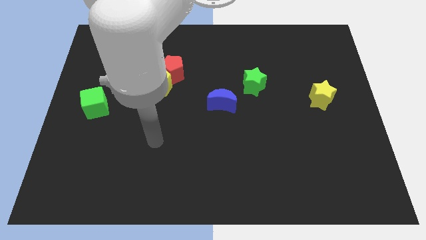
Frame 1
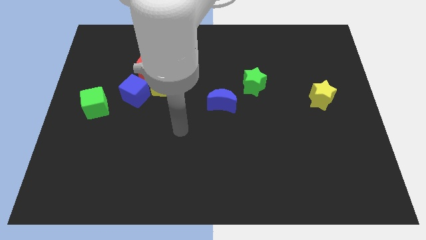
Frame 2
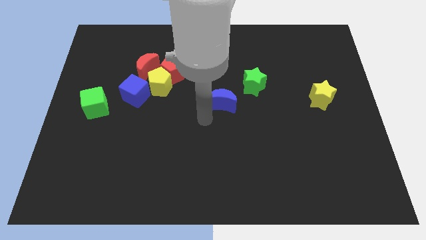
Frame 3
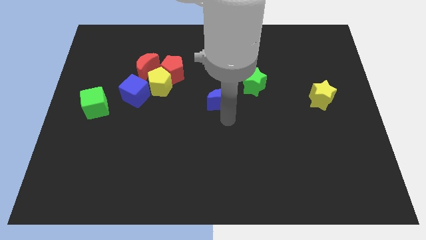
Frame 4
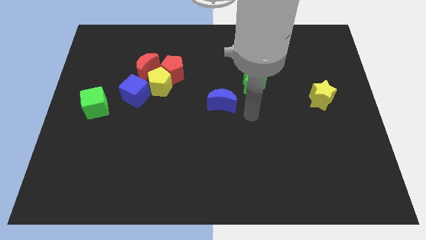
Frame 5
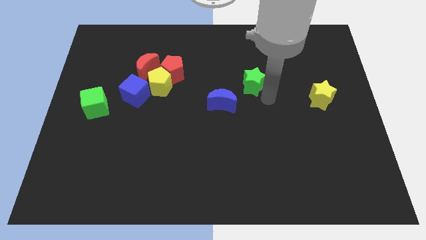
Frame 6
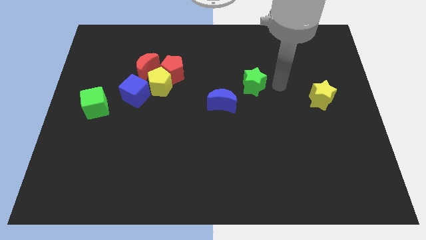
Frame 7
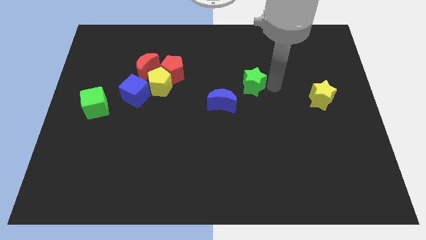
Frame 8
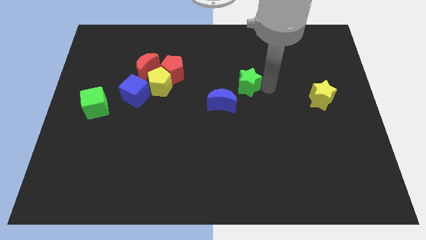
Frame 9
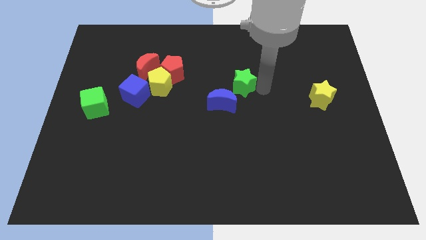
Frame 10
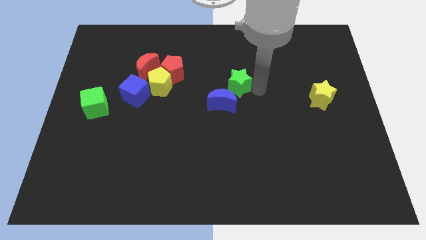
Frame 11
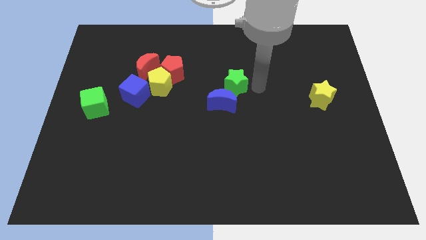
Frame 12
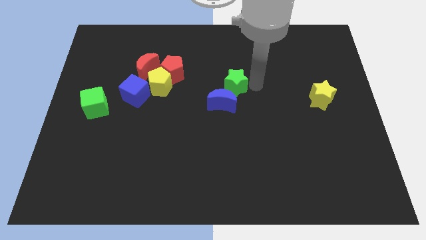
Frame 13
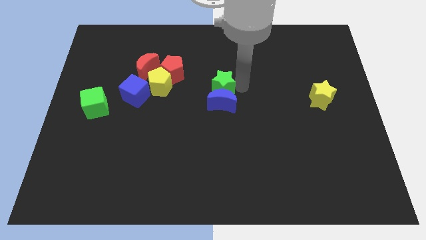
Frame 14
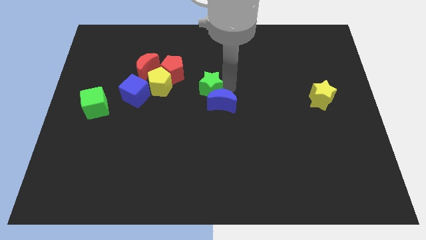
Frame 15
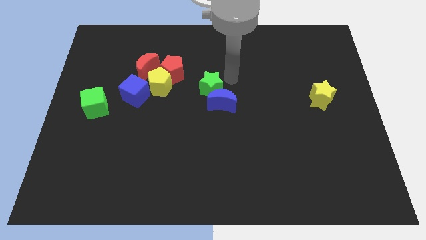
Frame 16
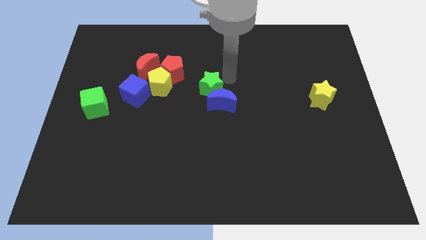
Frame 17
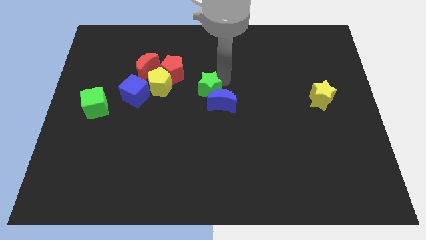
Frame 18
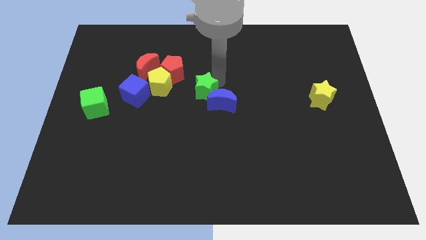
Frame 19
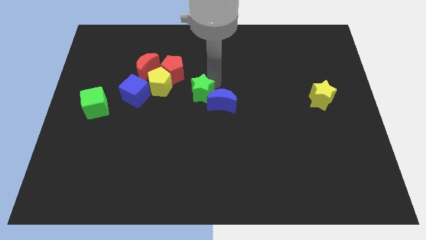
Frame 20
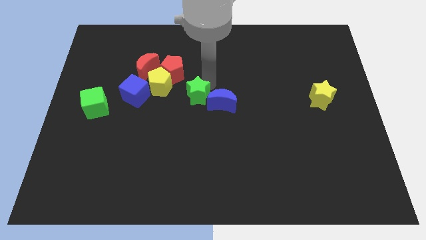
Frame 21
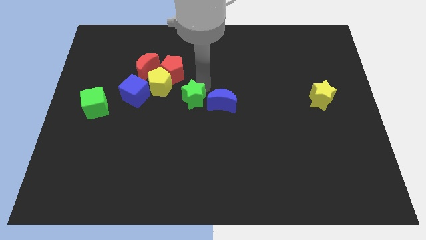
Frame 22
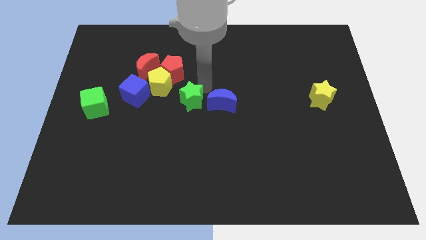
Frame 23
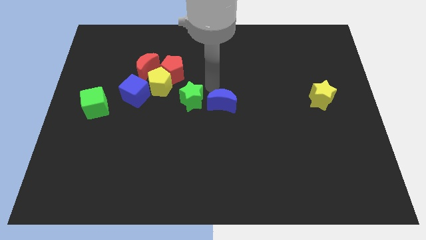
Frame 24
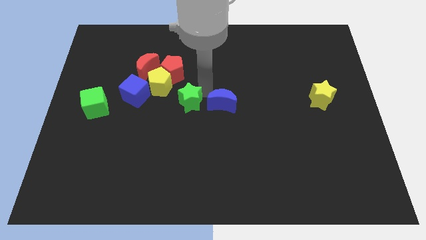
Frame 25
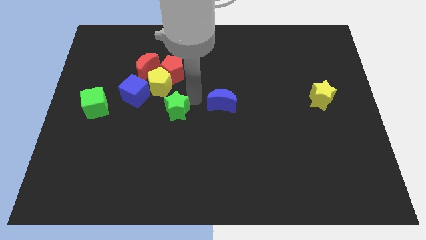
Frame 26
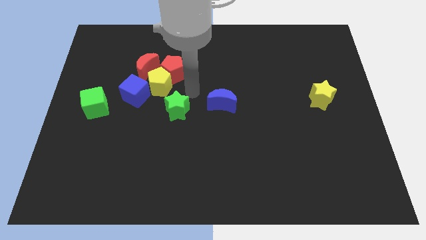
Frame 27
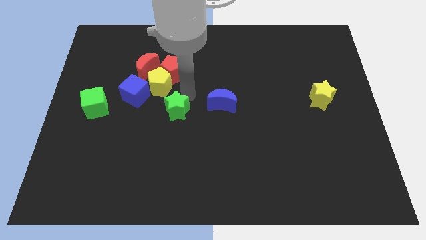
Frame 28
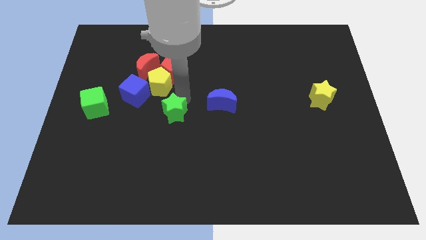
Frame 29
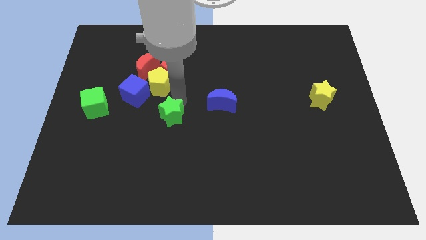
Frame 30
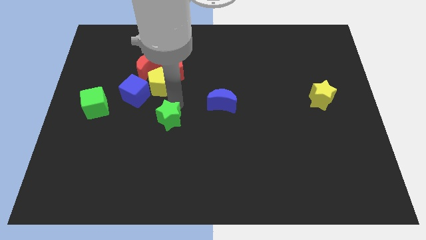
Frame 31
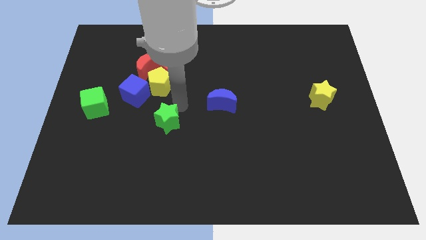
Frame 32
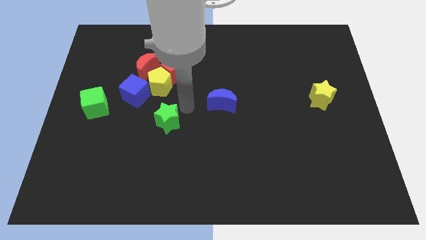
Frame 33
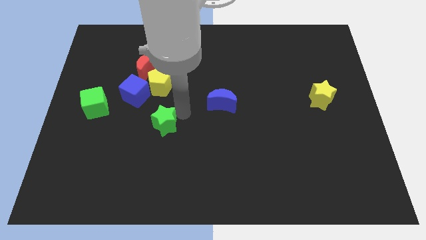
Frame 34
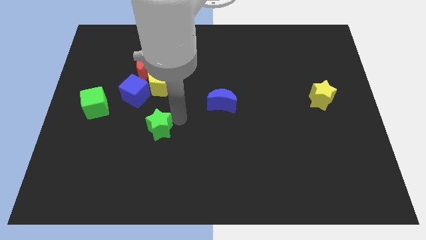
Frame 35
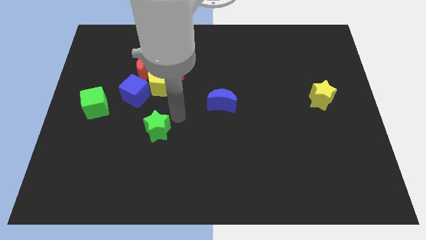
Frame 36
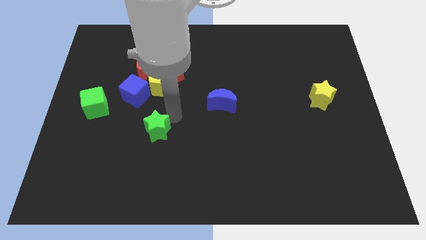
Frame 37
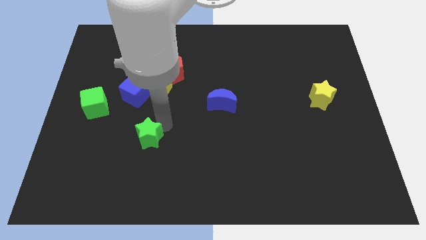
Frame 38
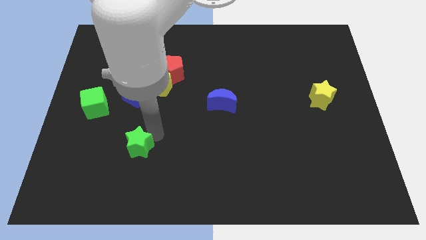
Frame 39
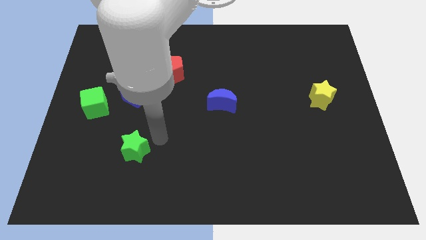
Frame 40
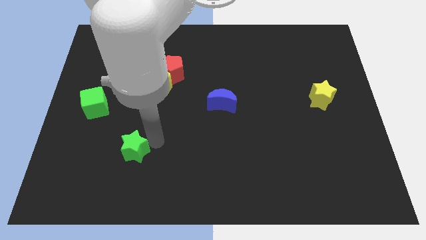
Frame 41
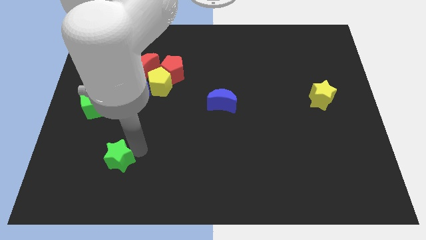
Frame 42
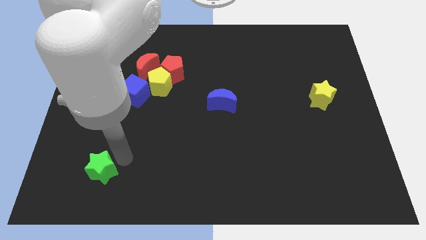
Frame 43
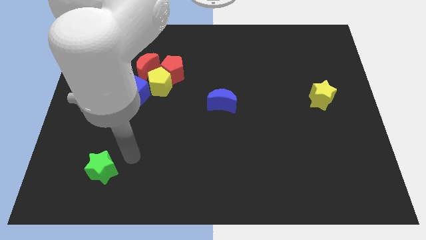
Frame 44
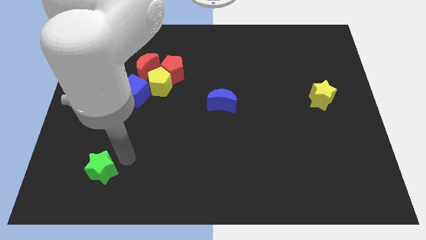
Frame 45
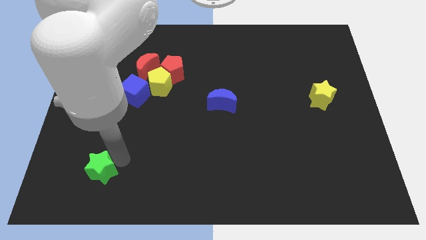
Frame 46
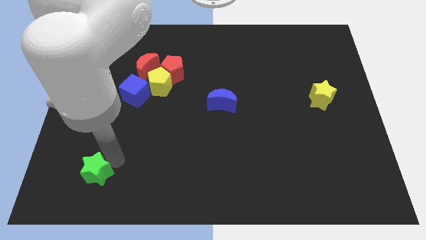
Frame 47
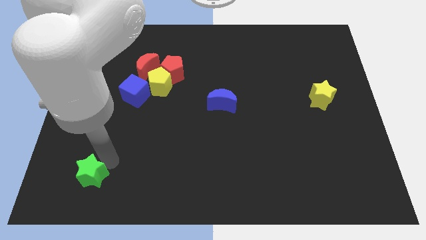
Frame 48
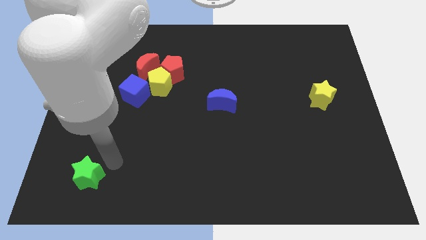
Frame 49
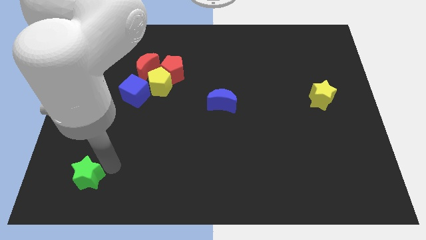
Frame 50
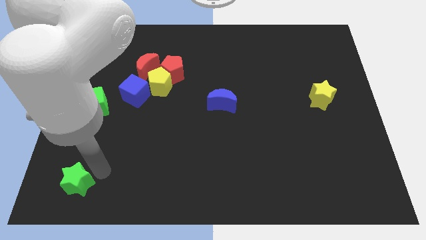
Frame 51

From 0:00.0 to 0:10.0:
slide the green star to the lower left corner

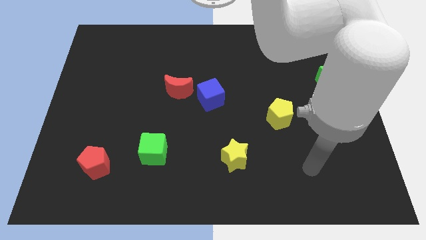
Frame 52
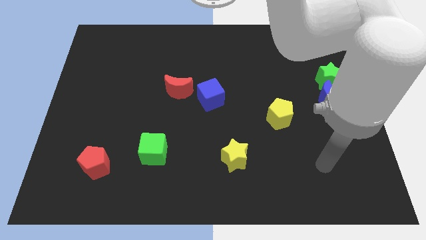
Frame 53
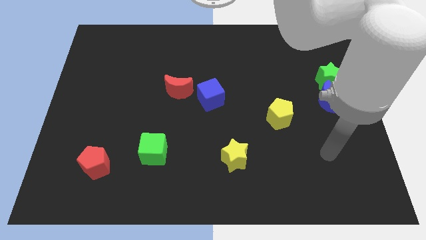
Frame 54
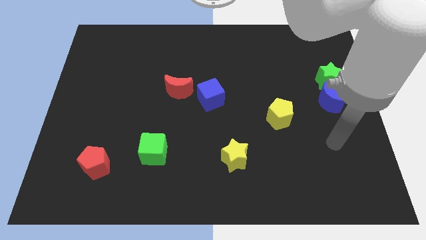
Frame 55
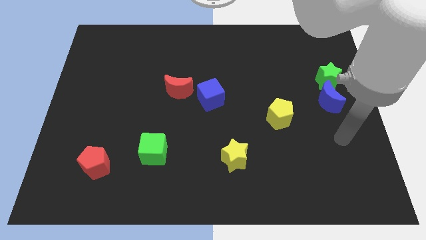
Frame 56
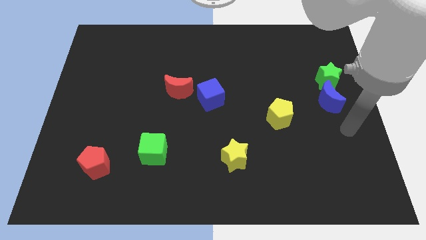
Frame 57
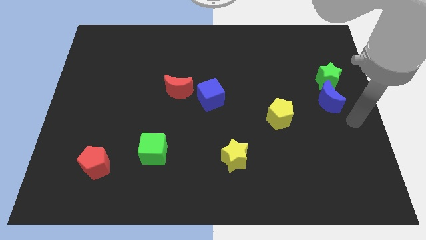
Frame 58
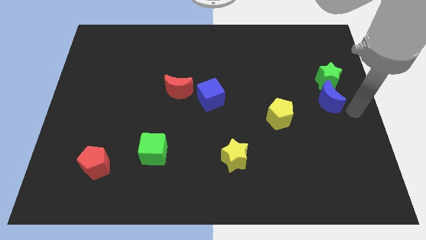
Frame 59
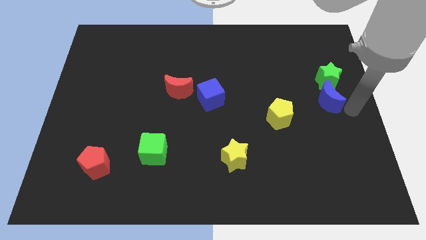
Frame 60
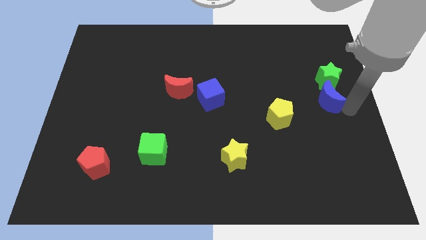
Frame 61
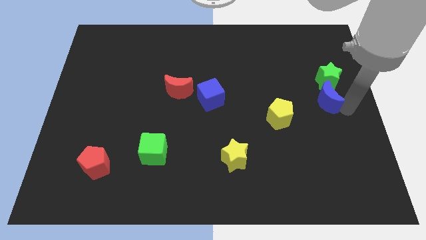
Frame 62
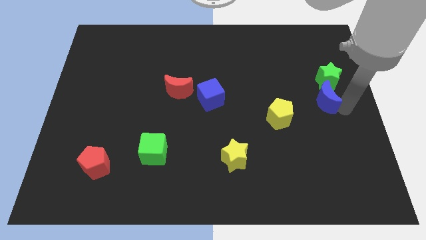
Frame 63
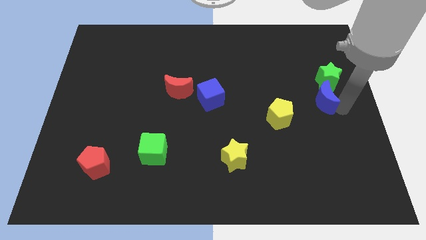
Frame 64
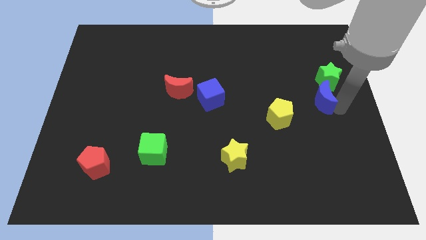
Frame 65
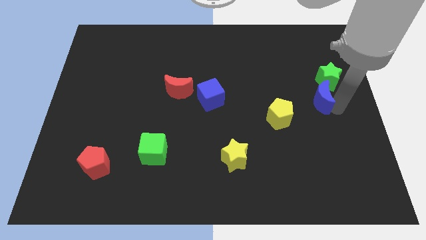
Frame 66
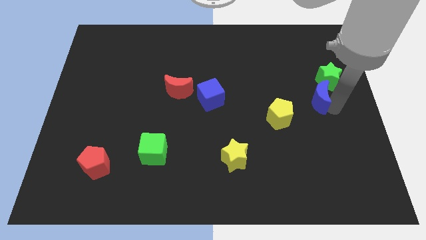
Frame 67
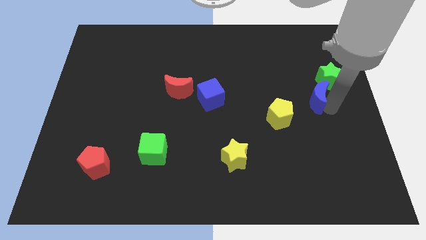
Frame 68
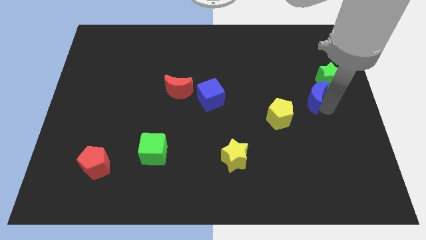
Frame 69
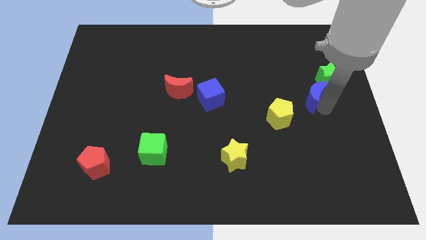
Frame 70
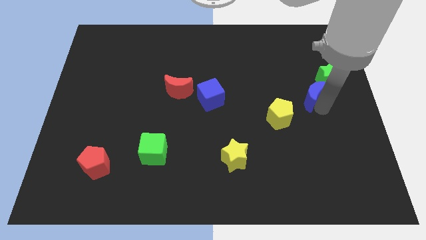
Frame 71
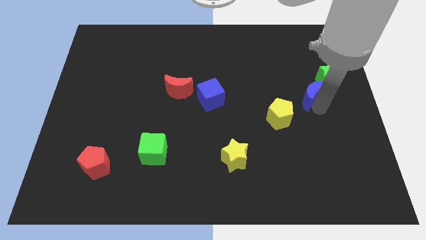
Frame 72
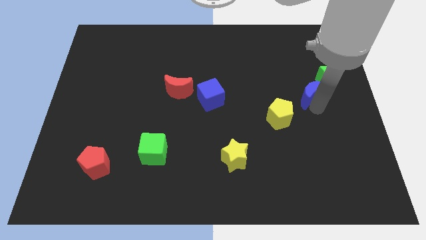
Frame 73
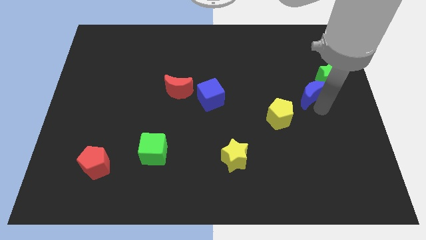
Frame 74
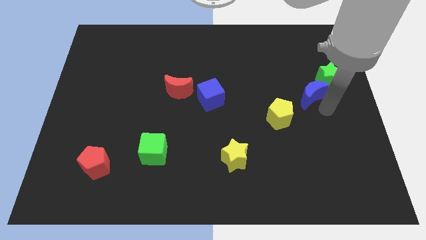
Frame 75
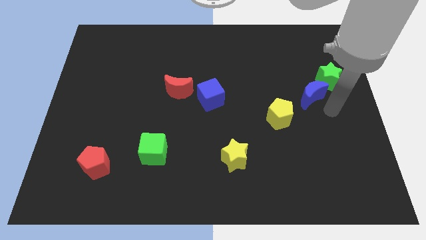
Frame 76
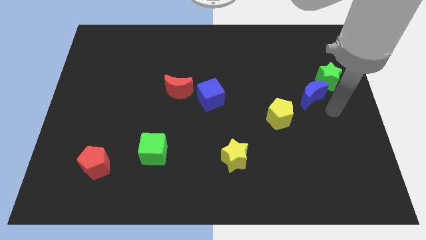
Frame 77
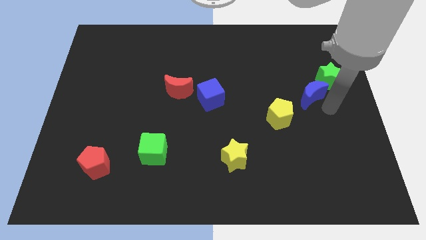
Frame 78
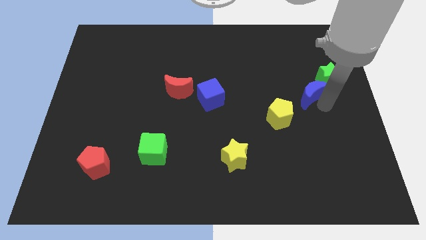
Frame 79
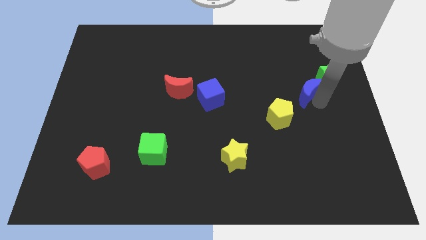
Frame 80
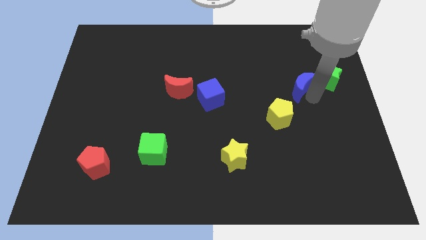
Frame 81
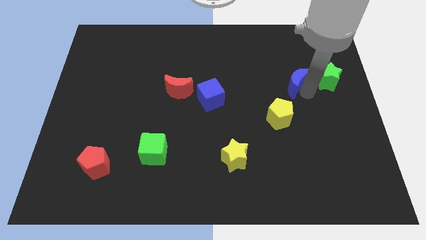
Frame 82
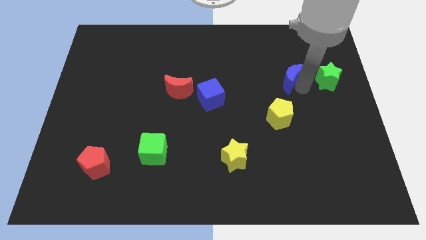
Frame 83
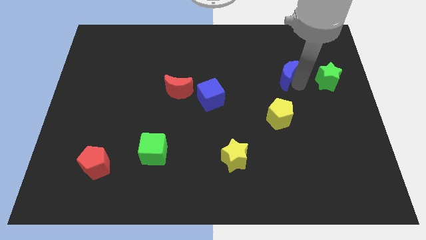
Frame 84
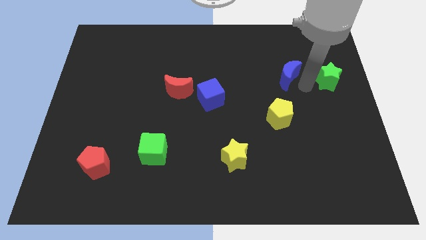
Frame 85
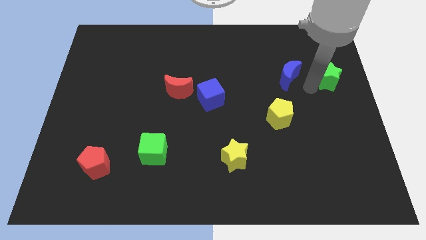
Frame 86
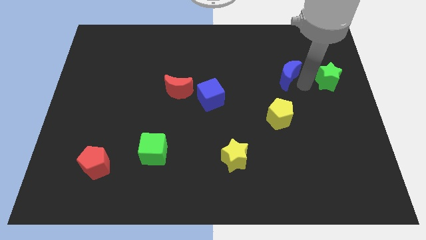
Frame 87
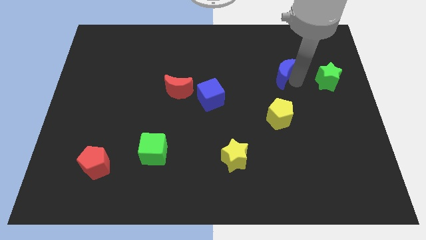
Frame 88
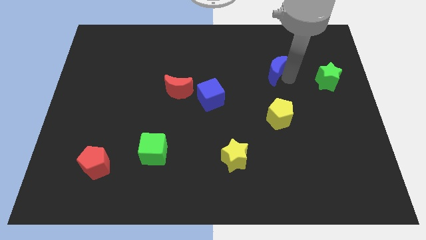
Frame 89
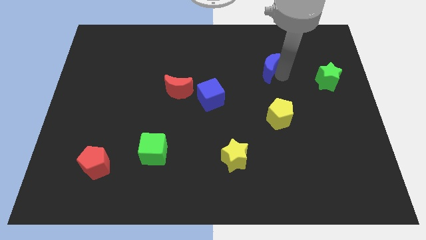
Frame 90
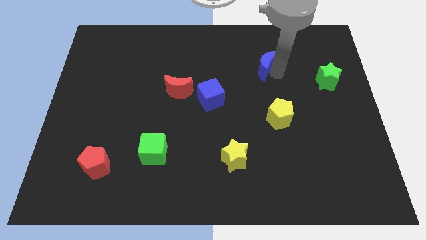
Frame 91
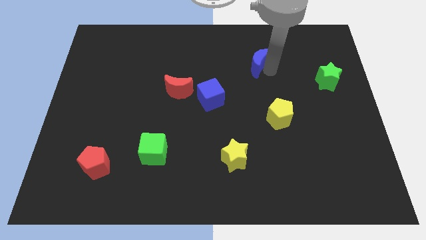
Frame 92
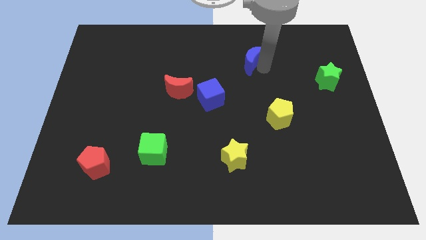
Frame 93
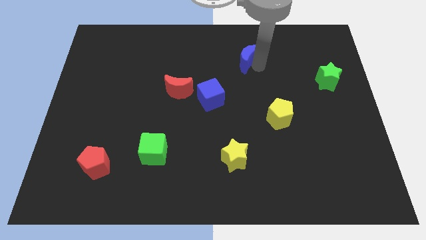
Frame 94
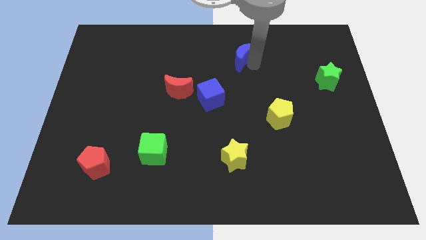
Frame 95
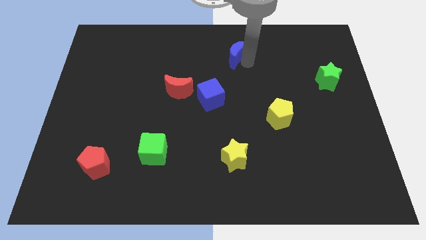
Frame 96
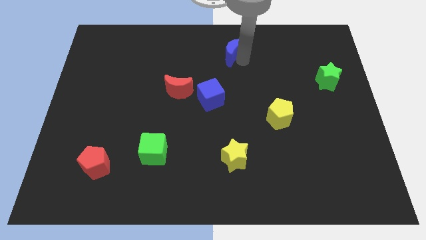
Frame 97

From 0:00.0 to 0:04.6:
slide the blue moon to the towards your base
